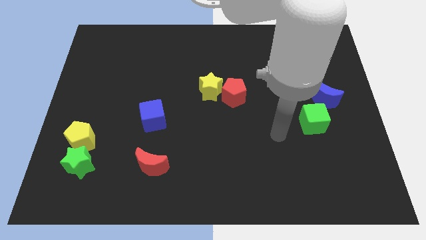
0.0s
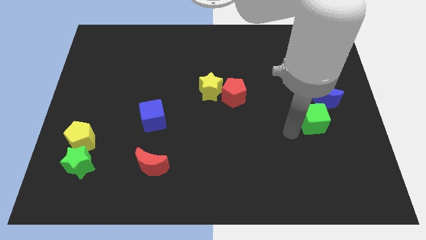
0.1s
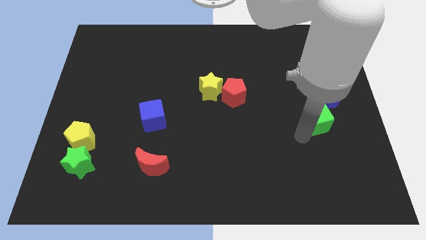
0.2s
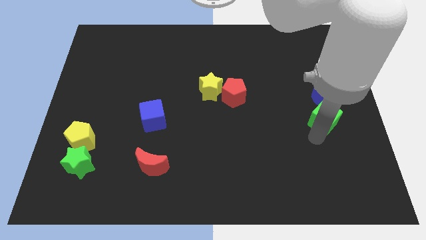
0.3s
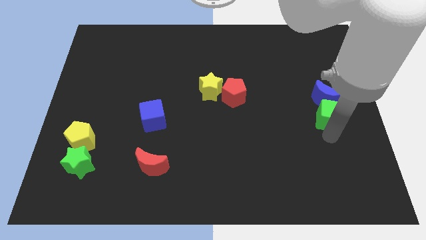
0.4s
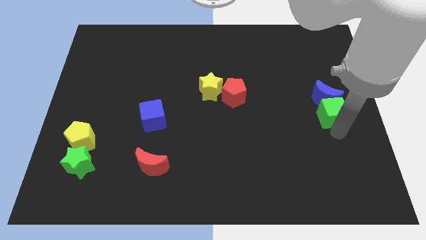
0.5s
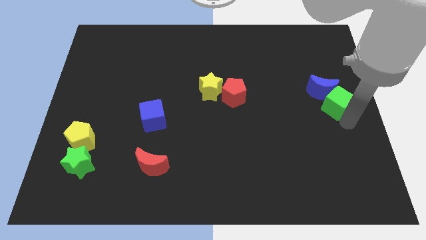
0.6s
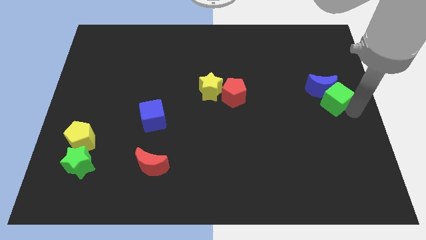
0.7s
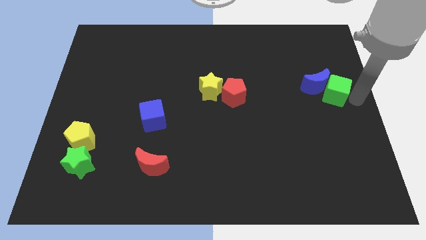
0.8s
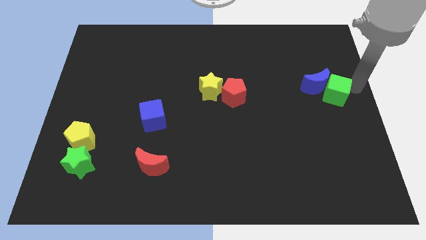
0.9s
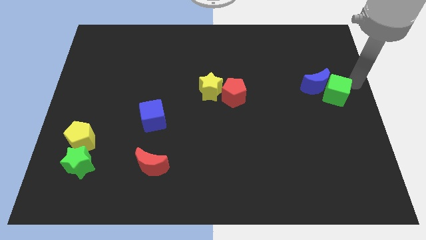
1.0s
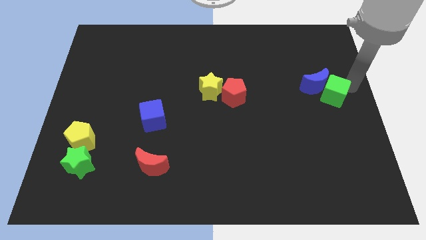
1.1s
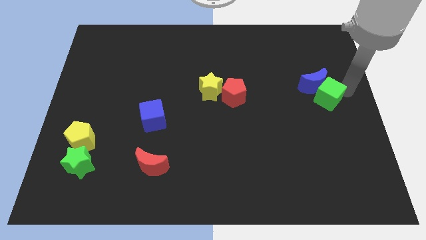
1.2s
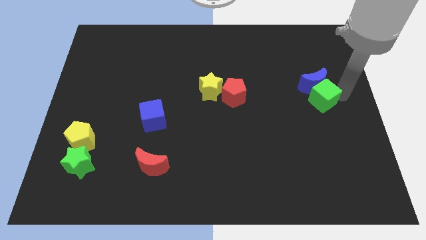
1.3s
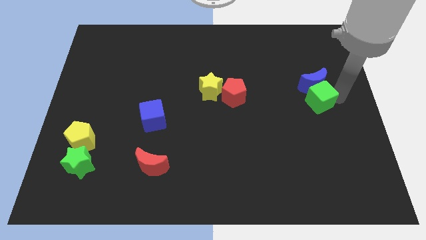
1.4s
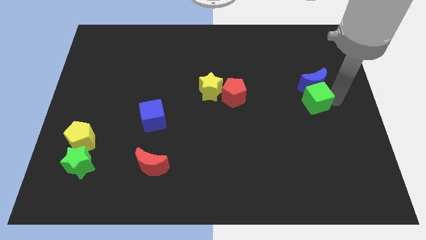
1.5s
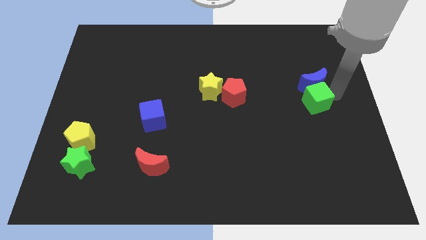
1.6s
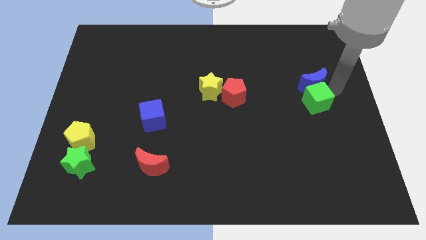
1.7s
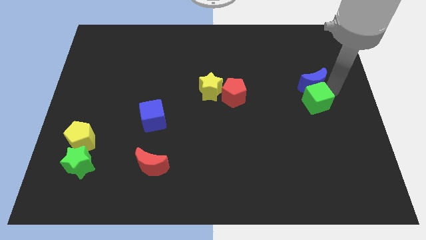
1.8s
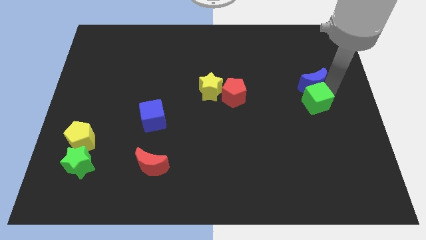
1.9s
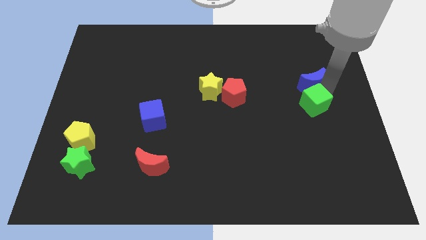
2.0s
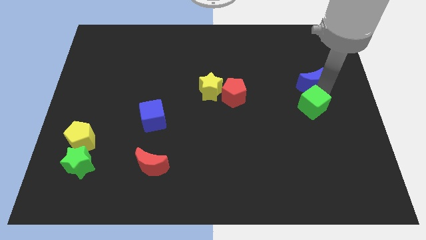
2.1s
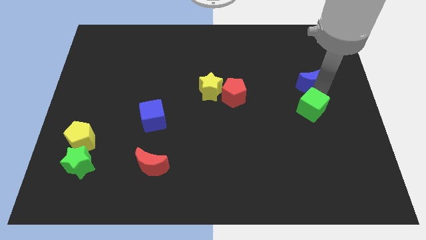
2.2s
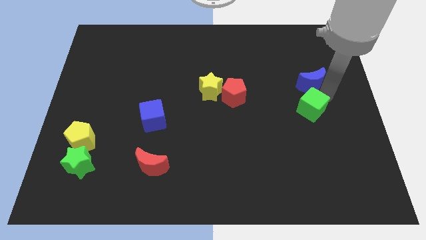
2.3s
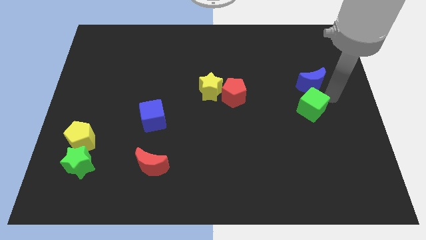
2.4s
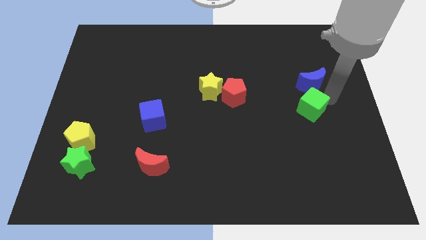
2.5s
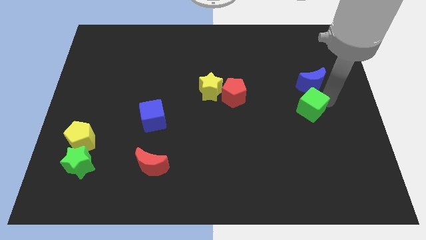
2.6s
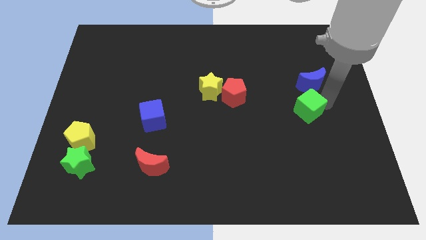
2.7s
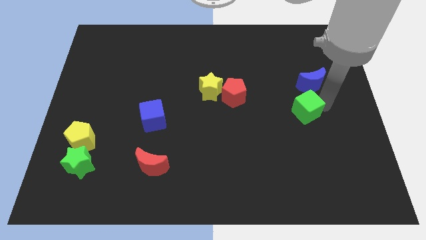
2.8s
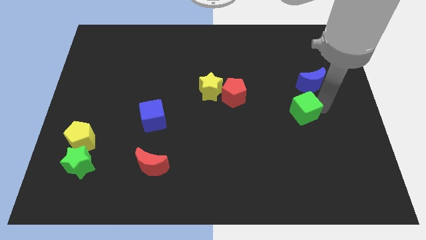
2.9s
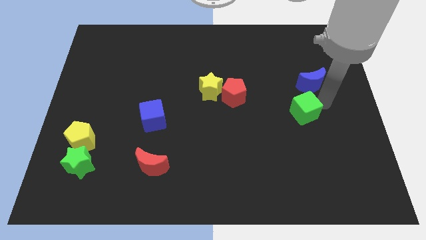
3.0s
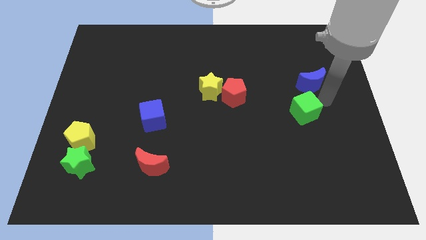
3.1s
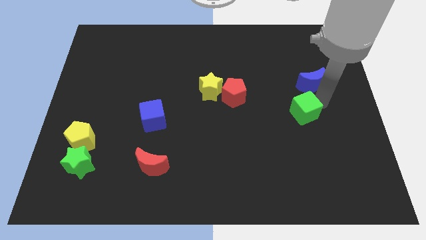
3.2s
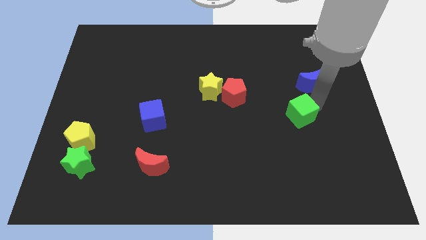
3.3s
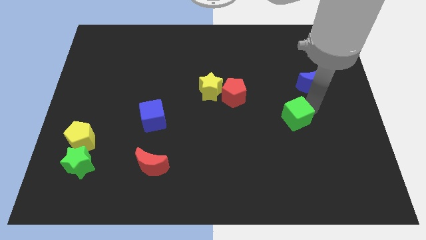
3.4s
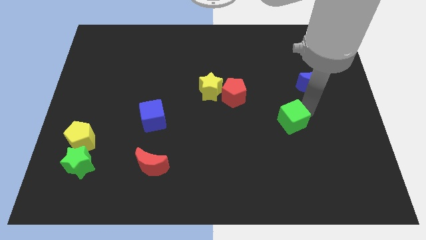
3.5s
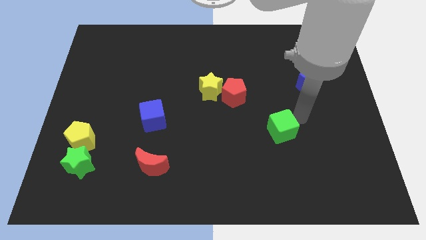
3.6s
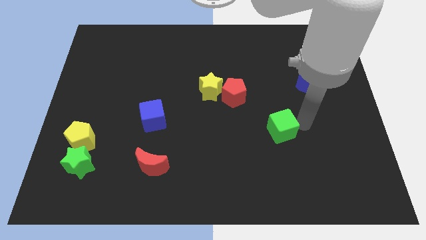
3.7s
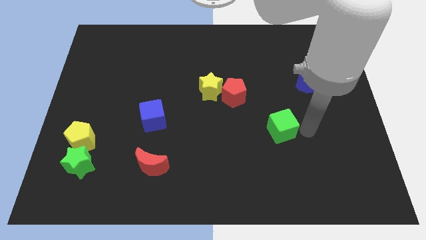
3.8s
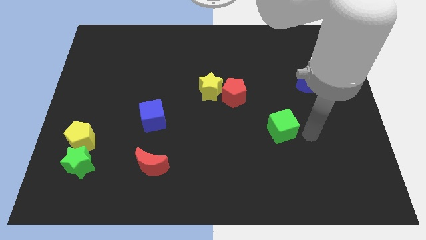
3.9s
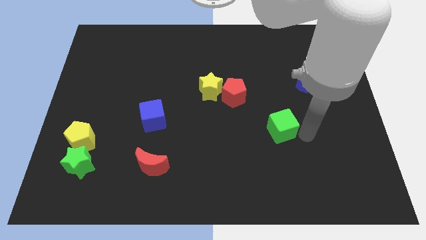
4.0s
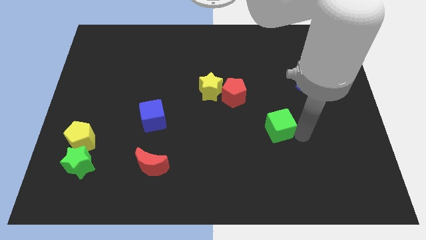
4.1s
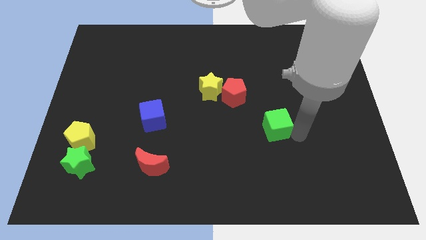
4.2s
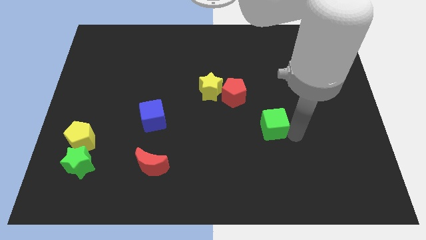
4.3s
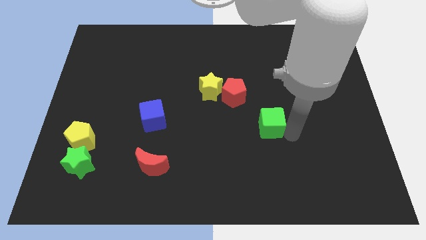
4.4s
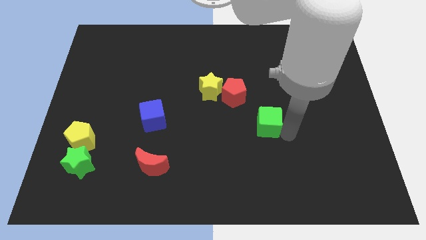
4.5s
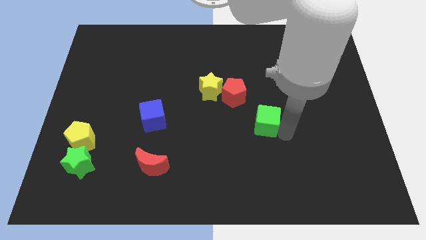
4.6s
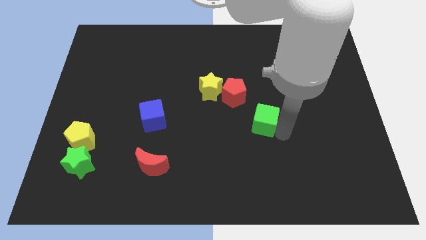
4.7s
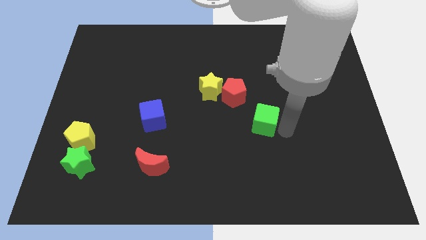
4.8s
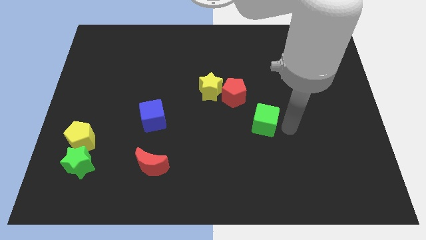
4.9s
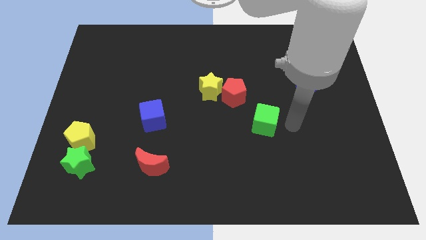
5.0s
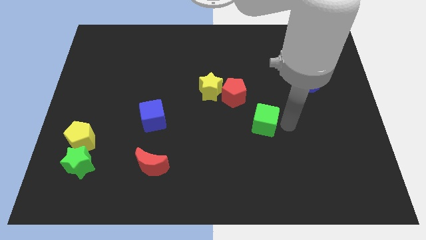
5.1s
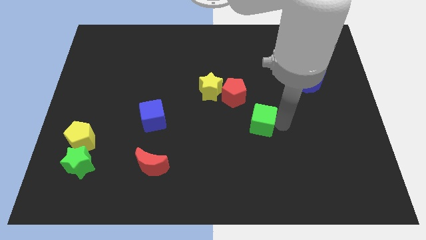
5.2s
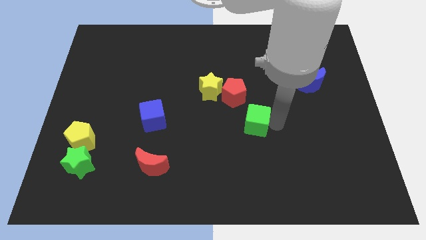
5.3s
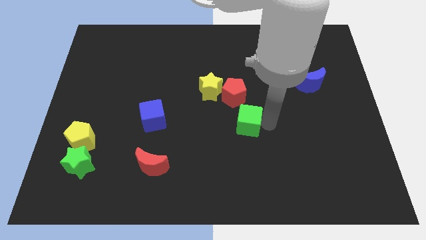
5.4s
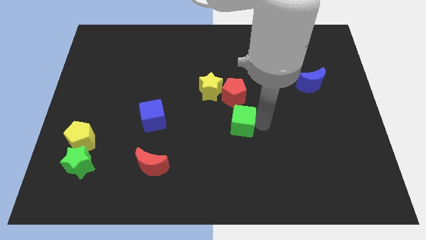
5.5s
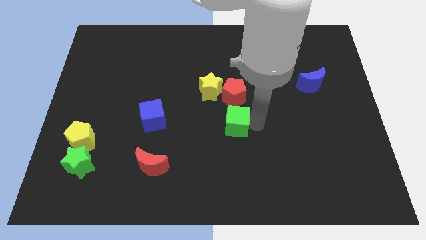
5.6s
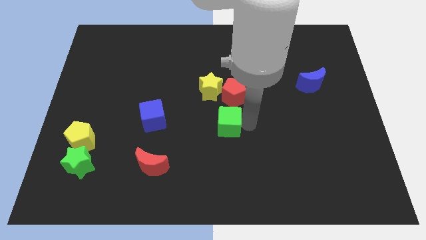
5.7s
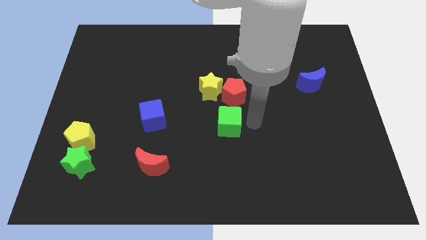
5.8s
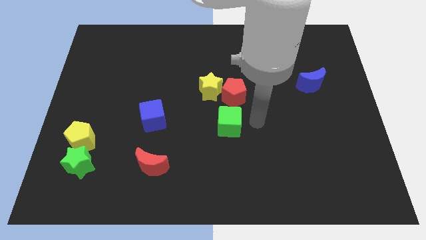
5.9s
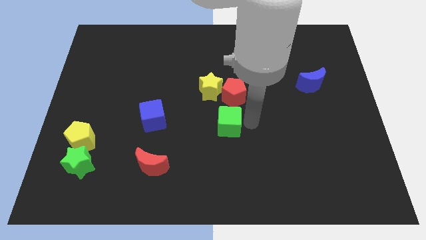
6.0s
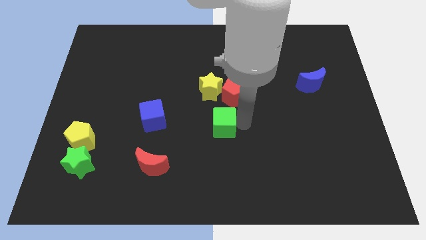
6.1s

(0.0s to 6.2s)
slide the green cube left

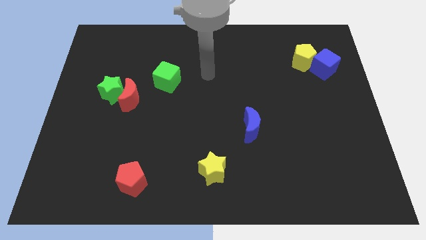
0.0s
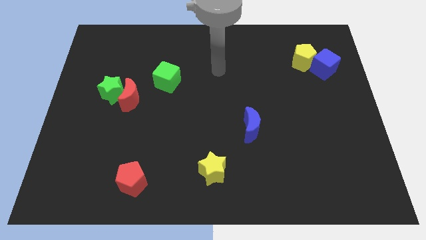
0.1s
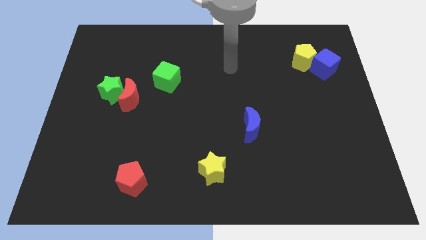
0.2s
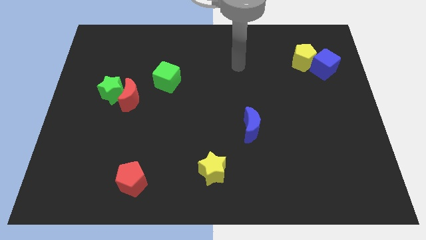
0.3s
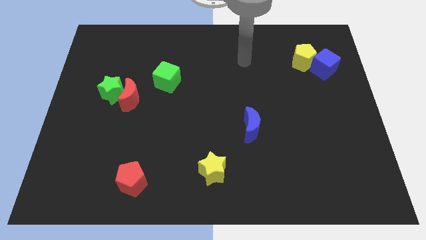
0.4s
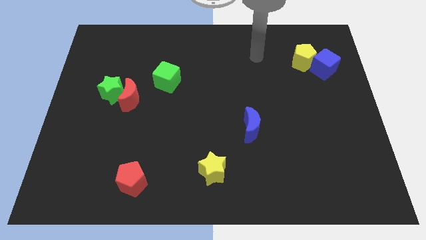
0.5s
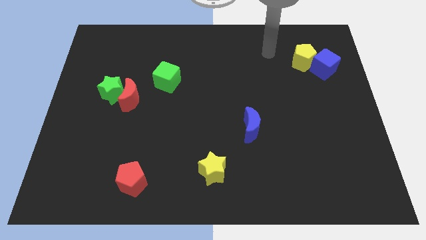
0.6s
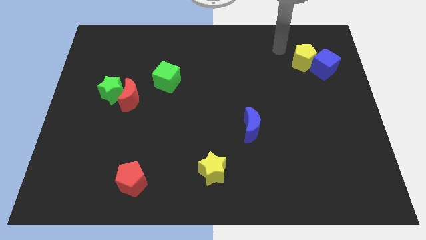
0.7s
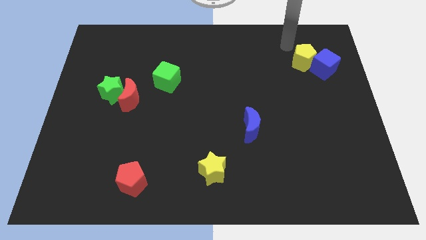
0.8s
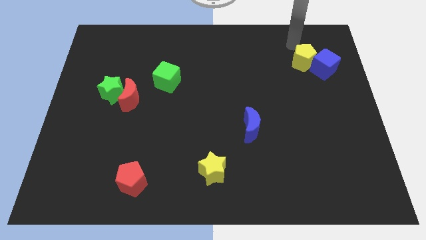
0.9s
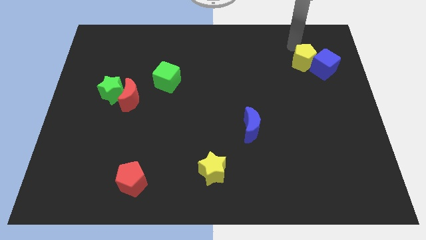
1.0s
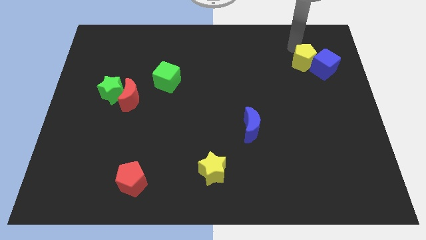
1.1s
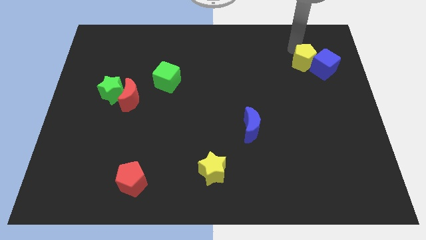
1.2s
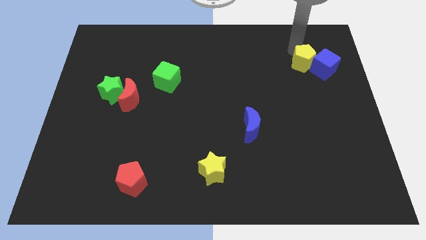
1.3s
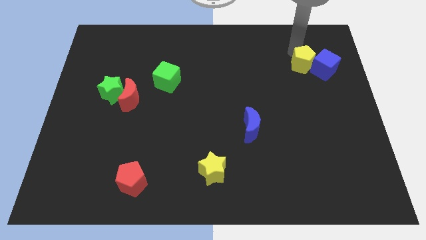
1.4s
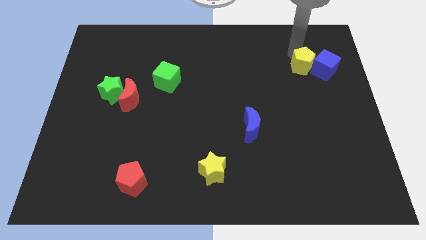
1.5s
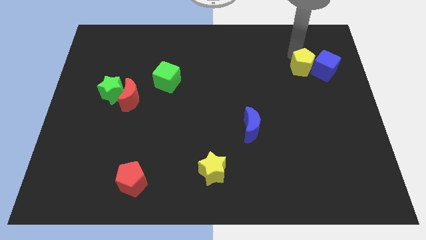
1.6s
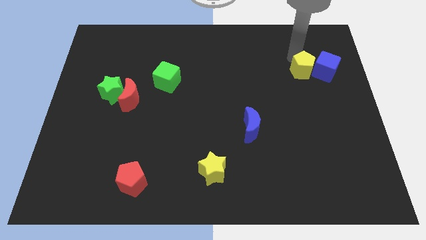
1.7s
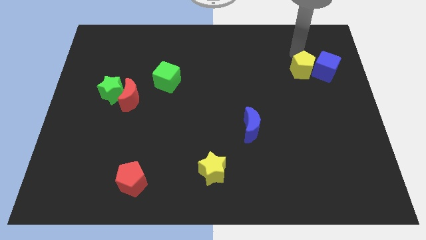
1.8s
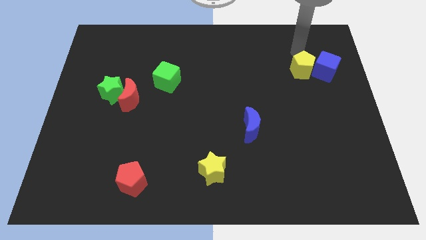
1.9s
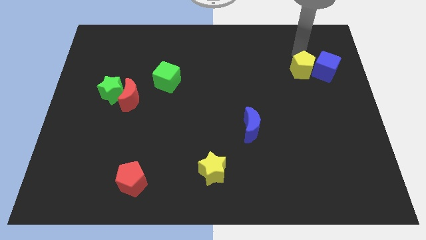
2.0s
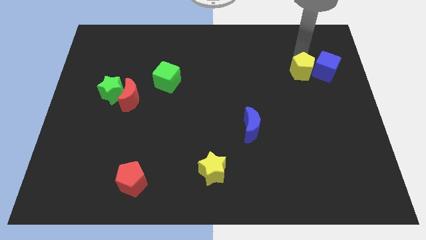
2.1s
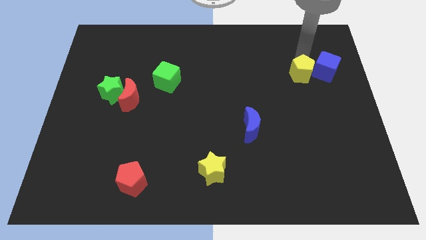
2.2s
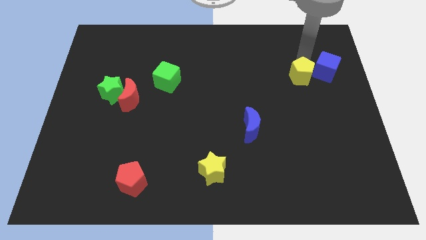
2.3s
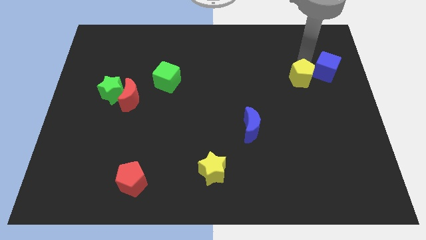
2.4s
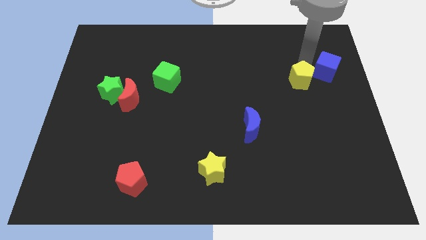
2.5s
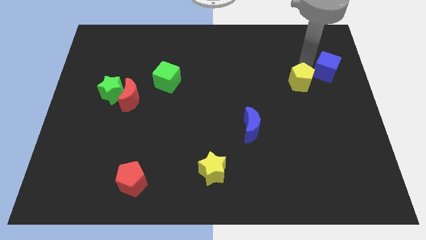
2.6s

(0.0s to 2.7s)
slide the yellow pentagon slightly downwards
